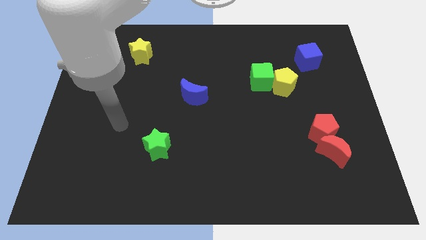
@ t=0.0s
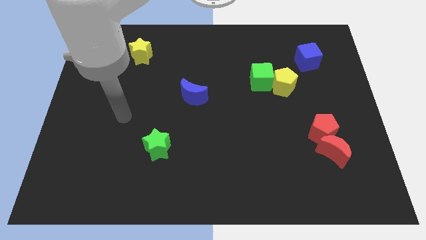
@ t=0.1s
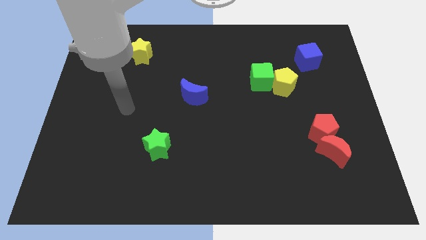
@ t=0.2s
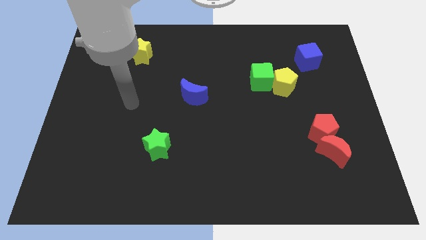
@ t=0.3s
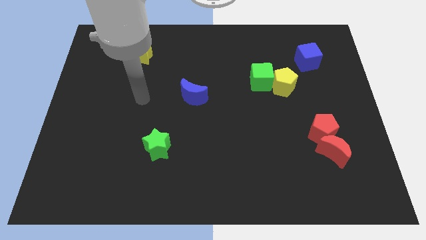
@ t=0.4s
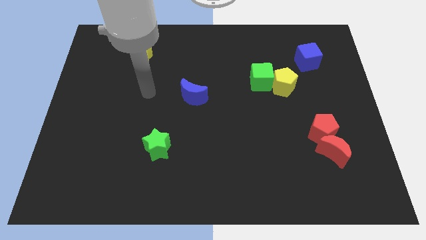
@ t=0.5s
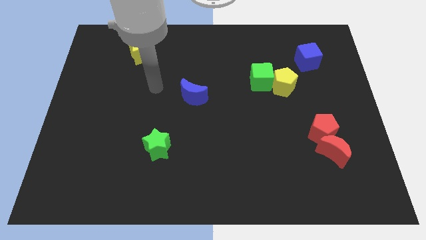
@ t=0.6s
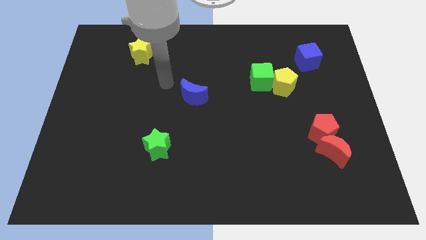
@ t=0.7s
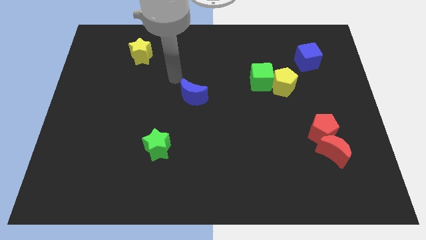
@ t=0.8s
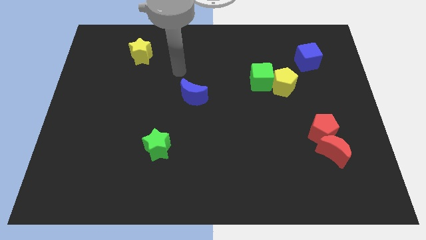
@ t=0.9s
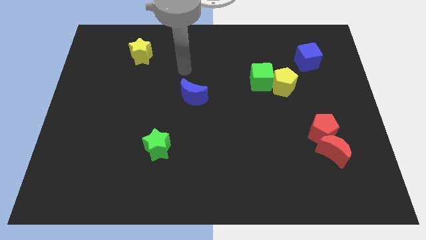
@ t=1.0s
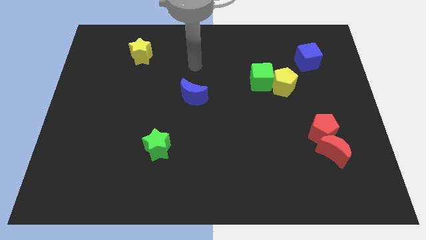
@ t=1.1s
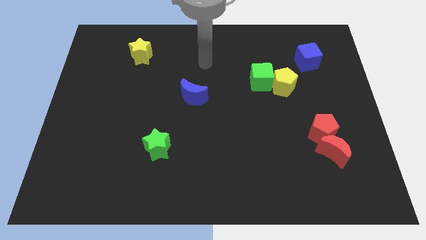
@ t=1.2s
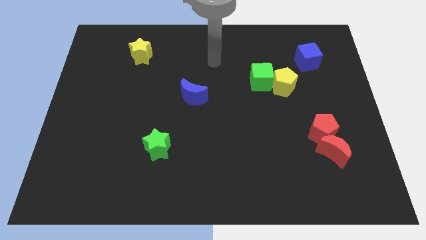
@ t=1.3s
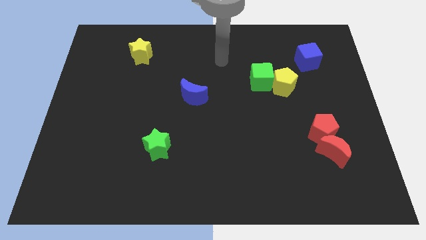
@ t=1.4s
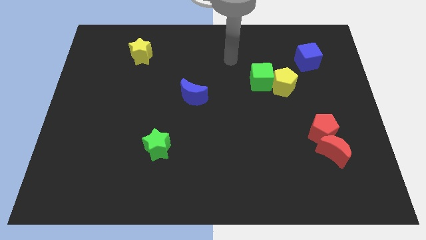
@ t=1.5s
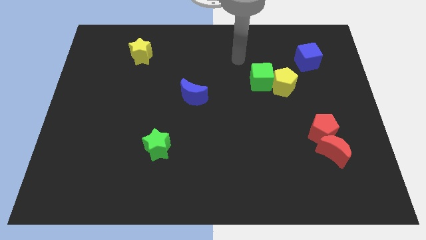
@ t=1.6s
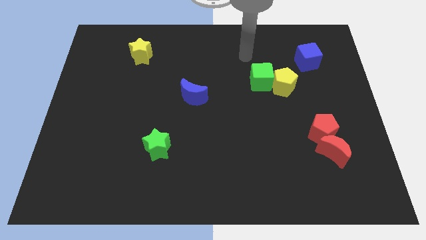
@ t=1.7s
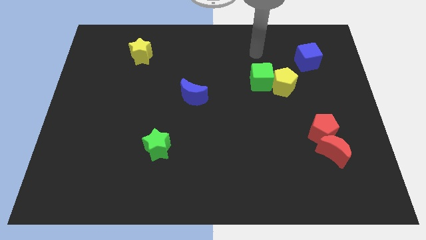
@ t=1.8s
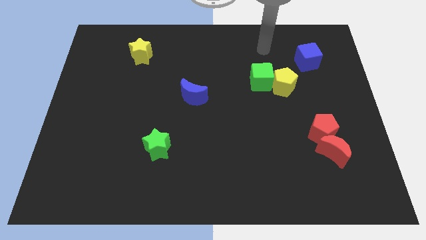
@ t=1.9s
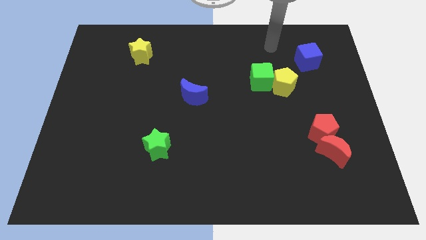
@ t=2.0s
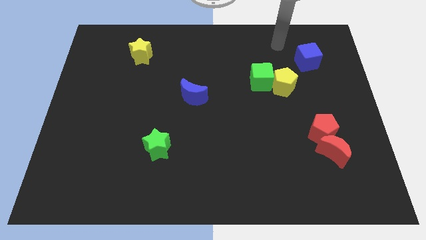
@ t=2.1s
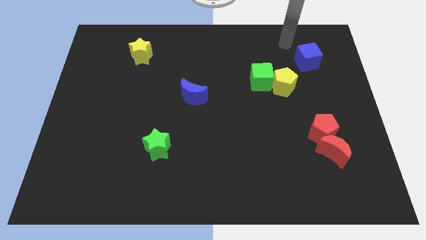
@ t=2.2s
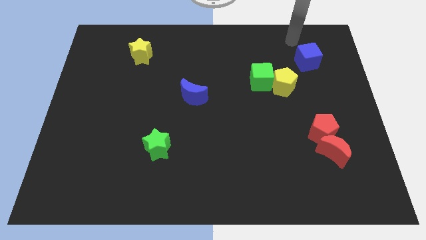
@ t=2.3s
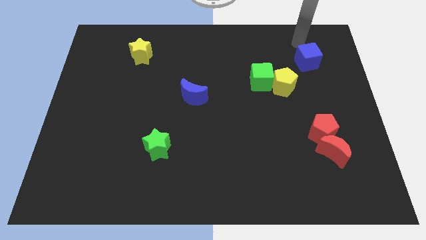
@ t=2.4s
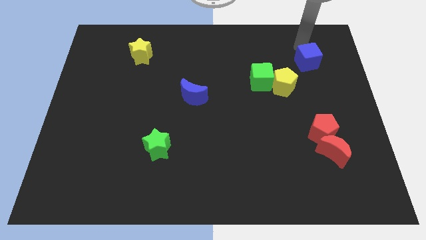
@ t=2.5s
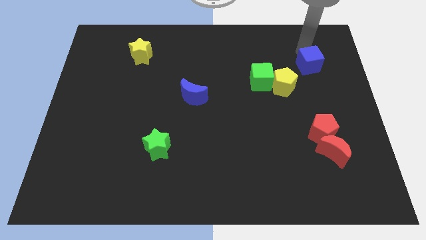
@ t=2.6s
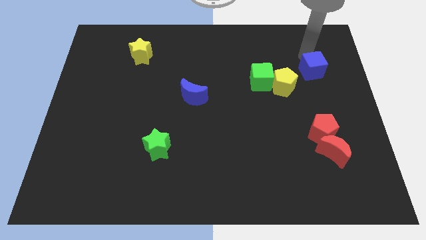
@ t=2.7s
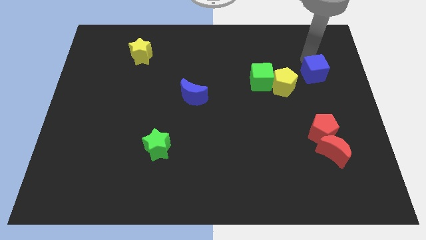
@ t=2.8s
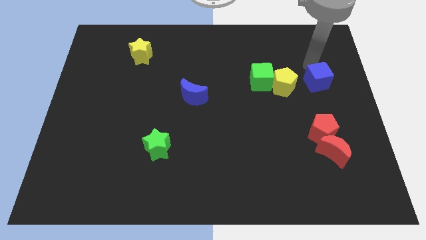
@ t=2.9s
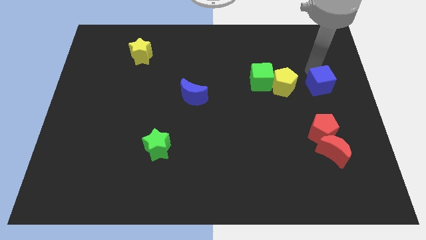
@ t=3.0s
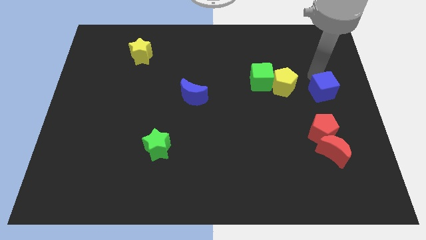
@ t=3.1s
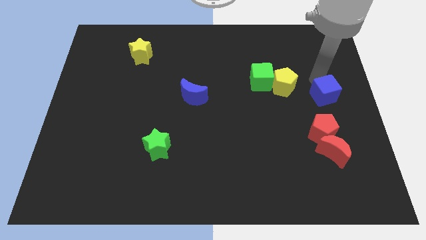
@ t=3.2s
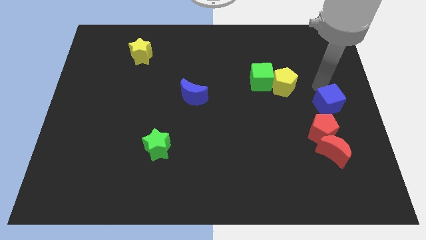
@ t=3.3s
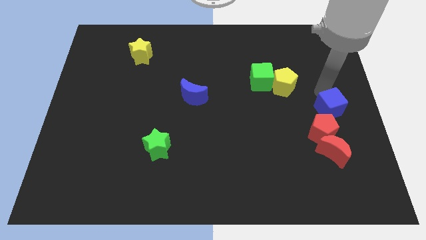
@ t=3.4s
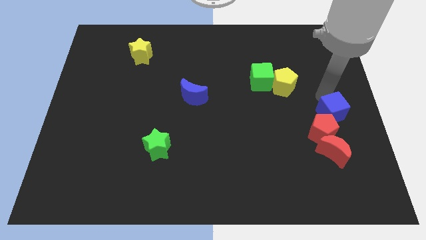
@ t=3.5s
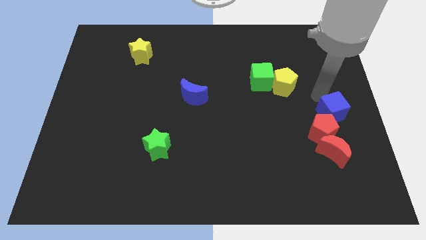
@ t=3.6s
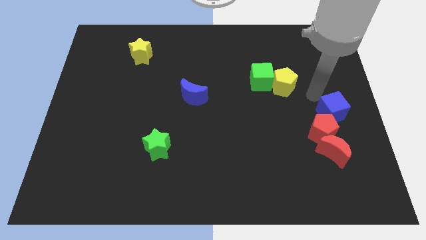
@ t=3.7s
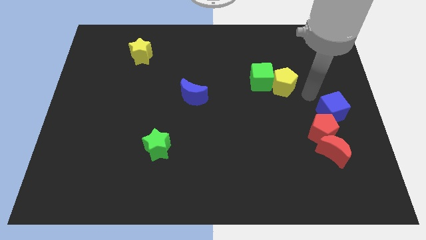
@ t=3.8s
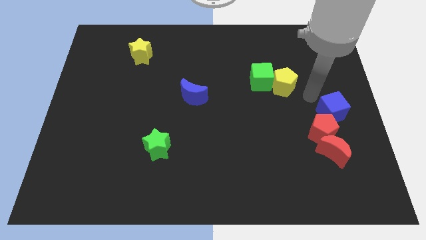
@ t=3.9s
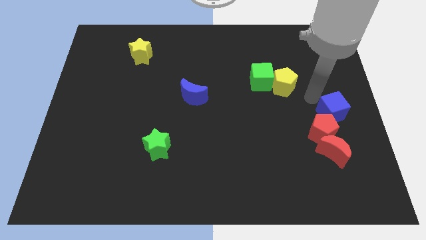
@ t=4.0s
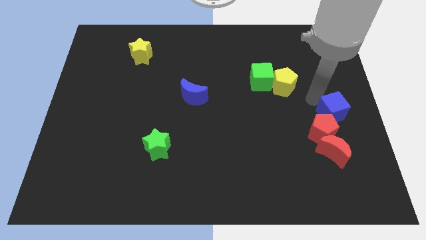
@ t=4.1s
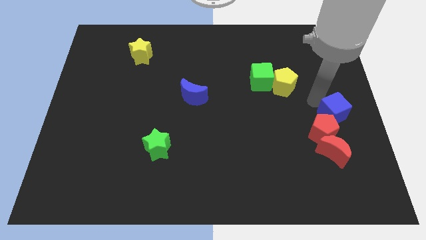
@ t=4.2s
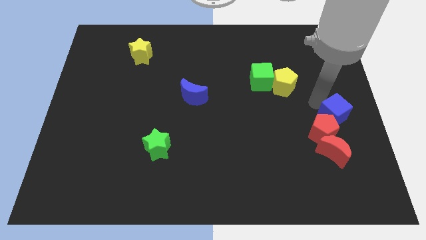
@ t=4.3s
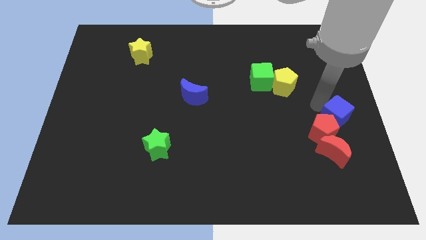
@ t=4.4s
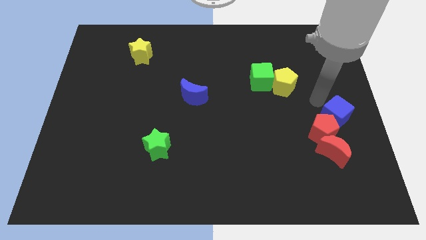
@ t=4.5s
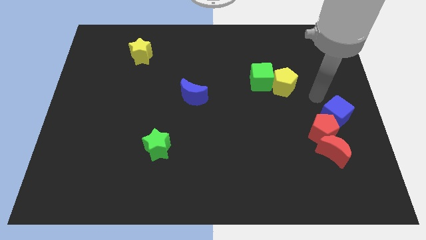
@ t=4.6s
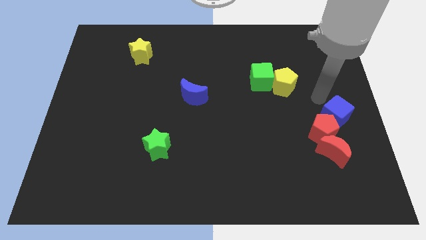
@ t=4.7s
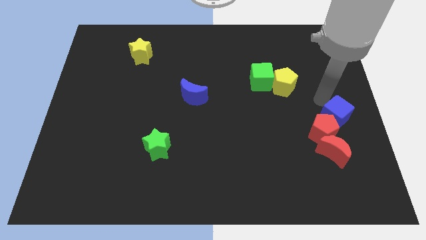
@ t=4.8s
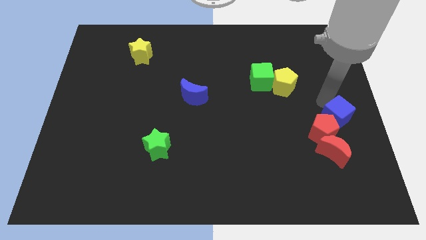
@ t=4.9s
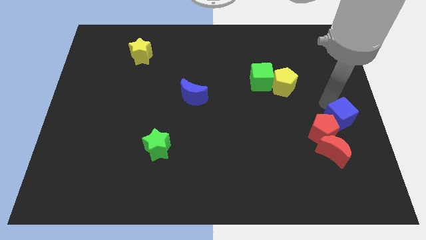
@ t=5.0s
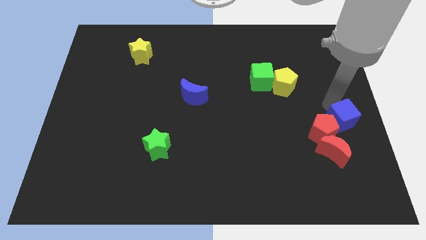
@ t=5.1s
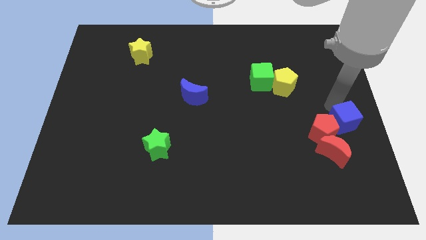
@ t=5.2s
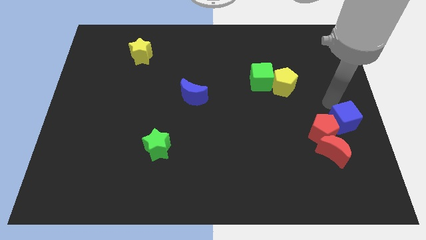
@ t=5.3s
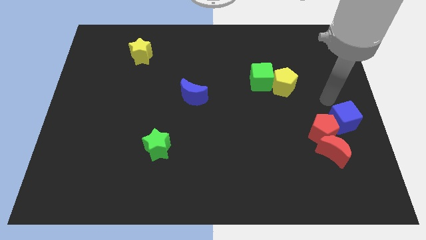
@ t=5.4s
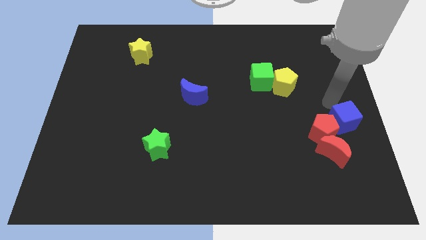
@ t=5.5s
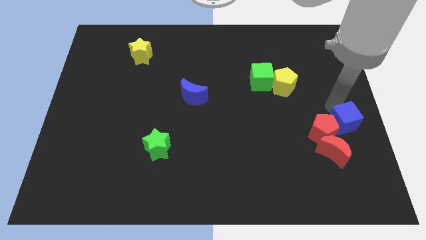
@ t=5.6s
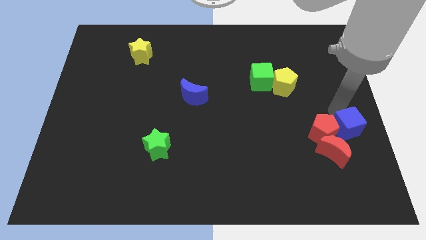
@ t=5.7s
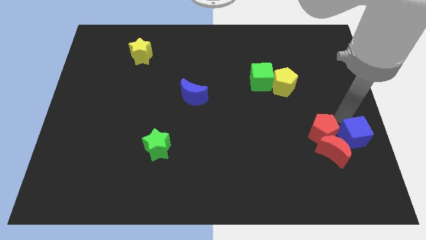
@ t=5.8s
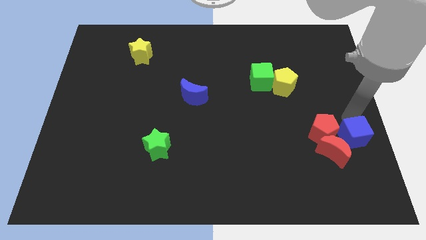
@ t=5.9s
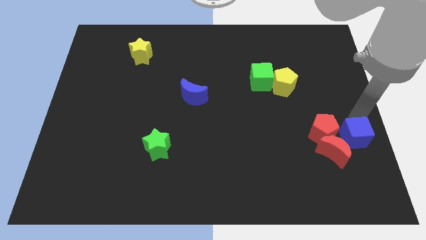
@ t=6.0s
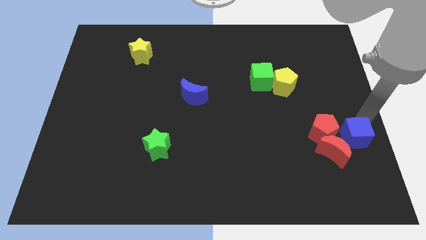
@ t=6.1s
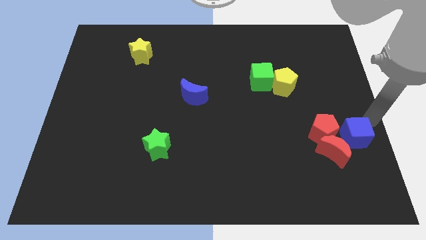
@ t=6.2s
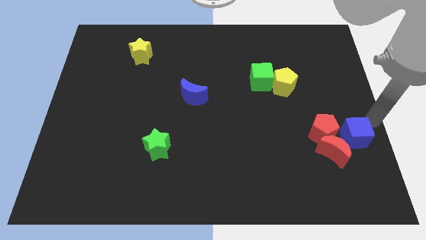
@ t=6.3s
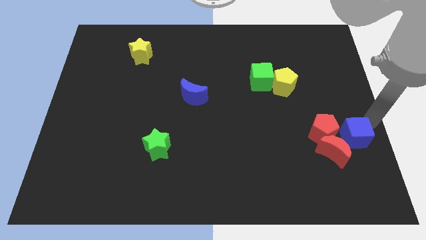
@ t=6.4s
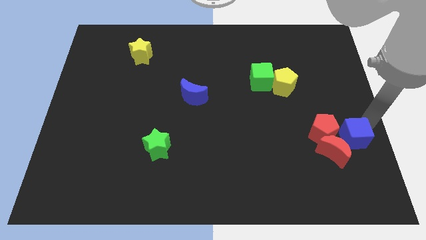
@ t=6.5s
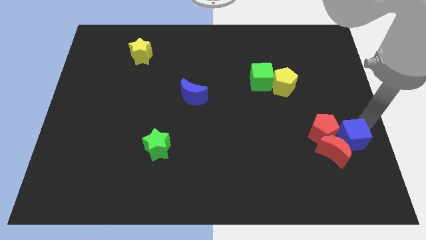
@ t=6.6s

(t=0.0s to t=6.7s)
put the blue cube to the red moon
